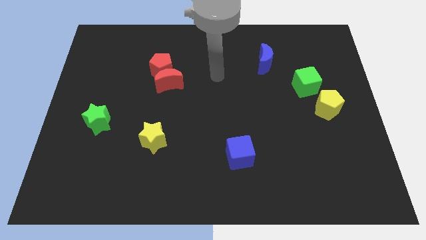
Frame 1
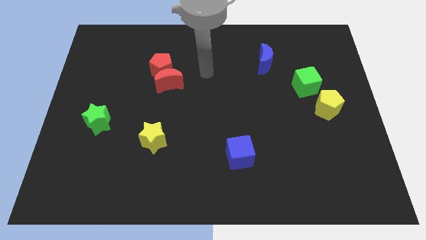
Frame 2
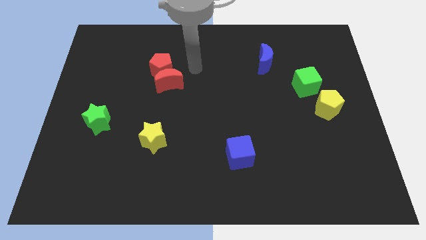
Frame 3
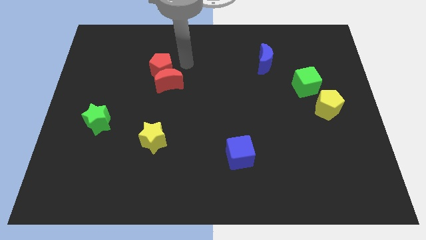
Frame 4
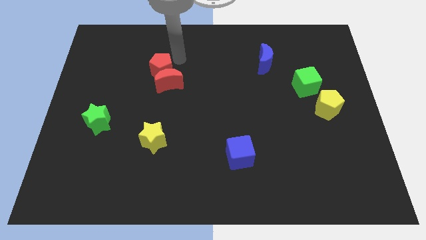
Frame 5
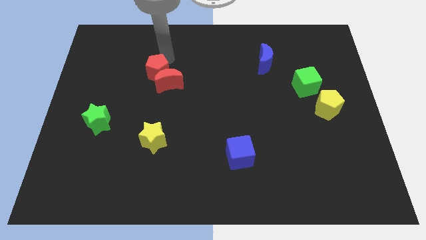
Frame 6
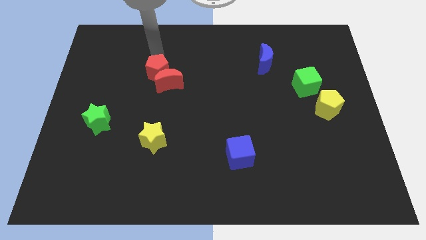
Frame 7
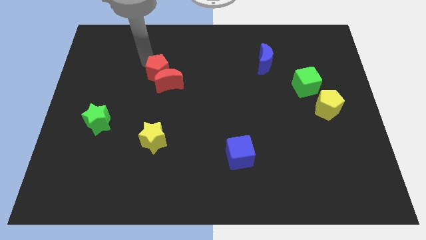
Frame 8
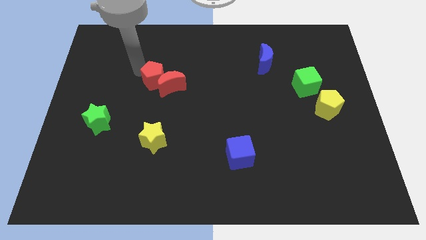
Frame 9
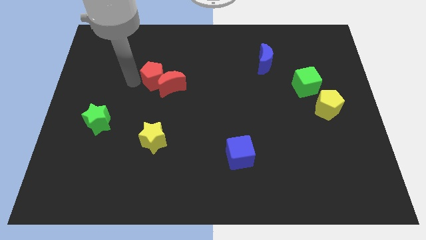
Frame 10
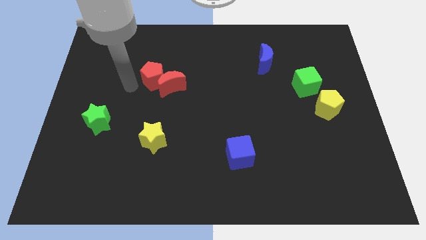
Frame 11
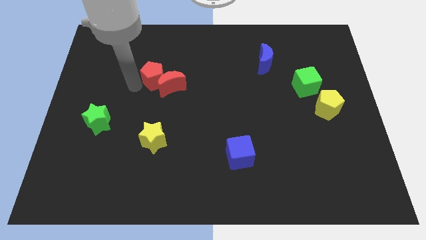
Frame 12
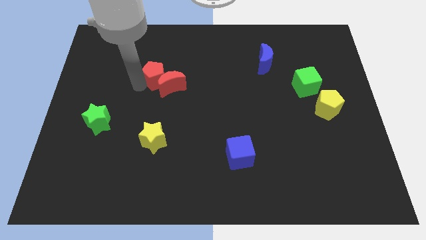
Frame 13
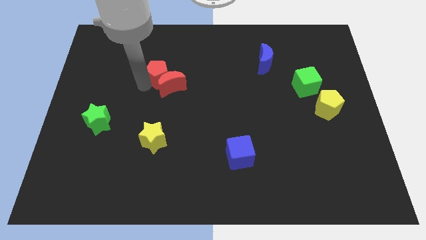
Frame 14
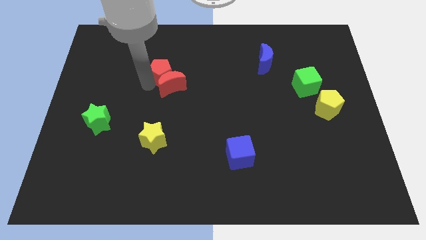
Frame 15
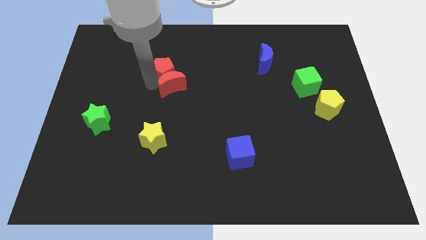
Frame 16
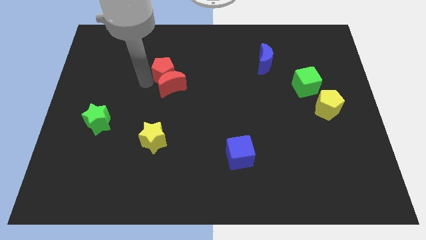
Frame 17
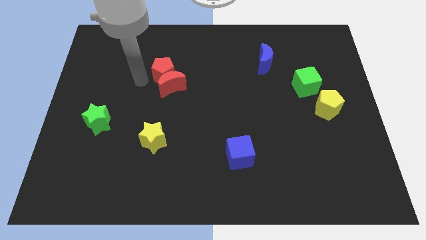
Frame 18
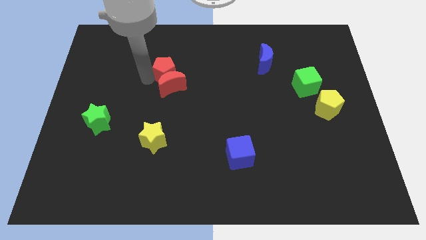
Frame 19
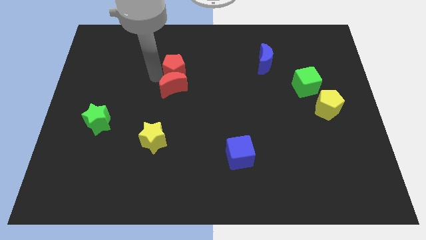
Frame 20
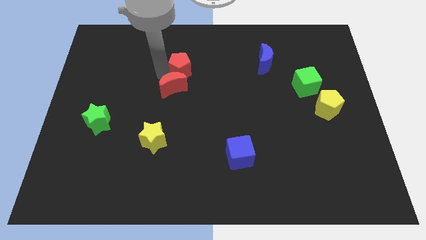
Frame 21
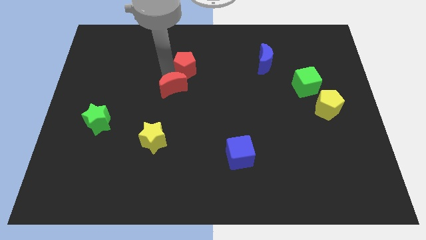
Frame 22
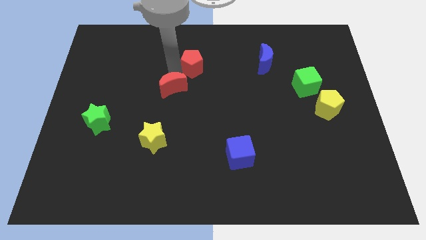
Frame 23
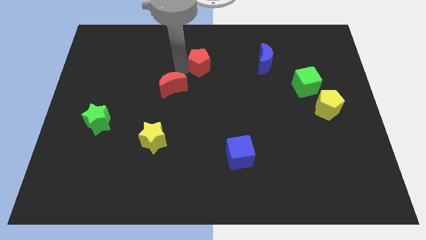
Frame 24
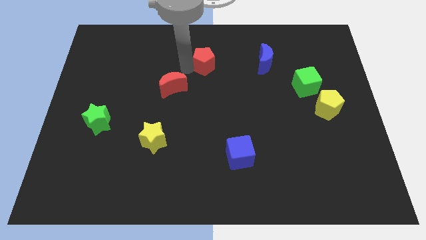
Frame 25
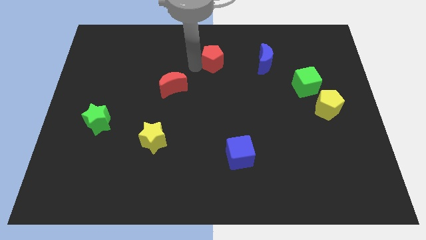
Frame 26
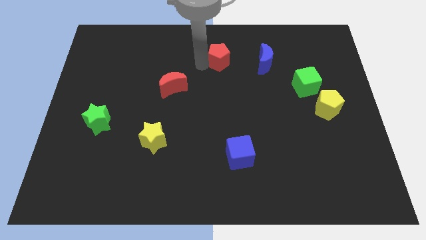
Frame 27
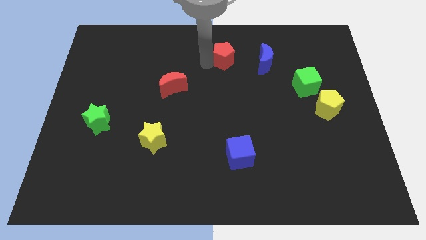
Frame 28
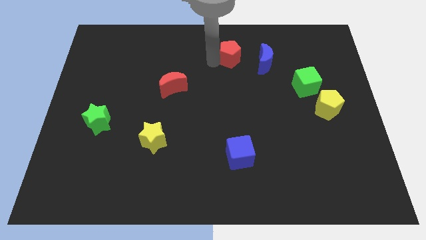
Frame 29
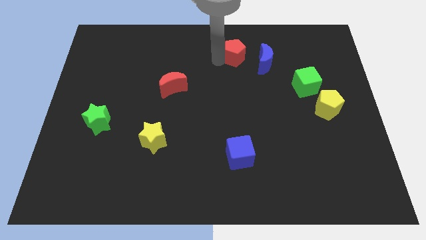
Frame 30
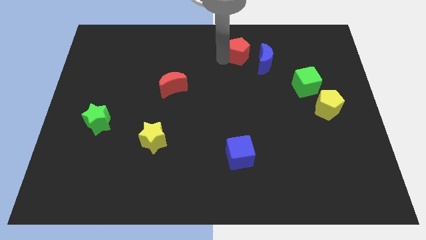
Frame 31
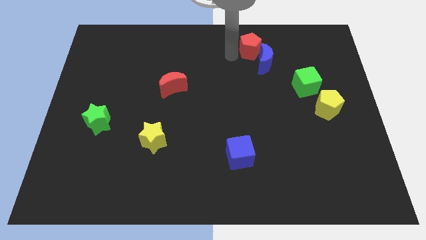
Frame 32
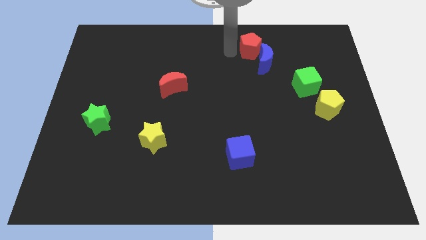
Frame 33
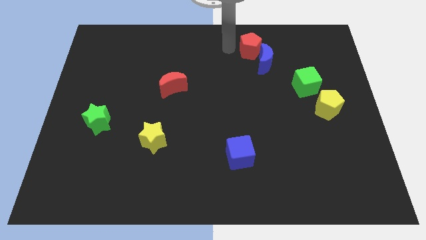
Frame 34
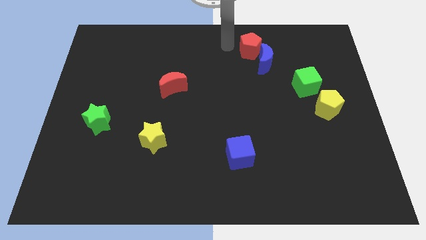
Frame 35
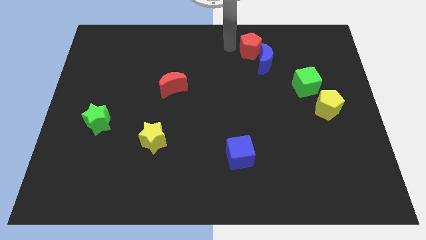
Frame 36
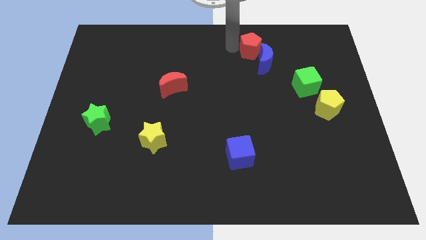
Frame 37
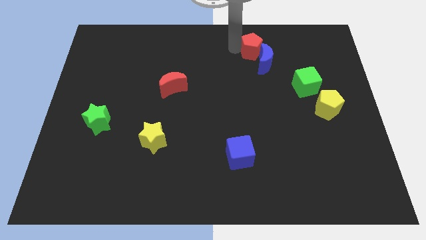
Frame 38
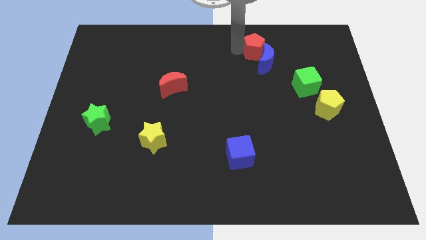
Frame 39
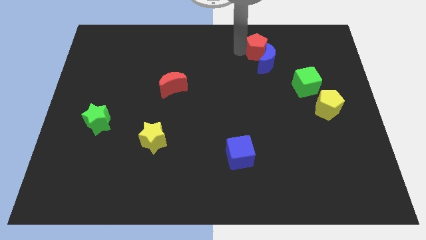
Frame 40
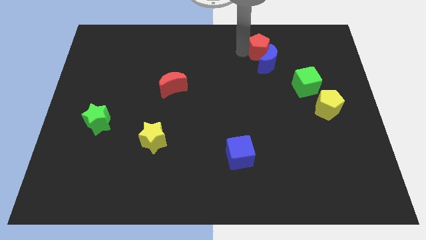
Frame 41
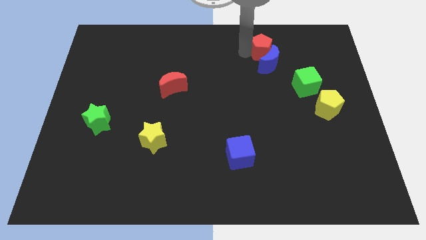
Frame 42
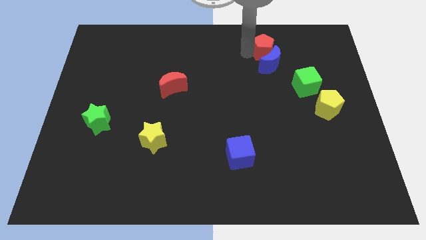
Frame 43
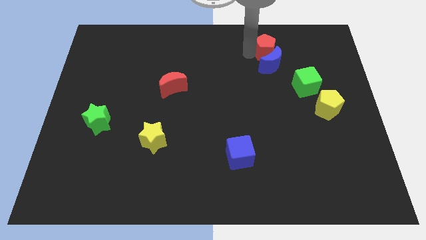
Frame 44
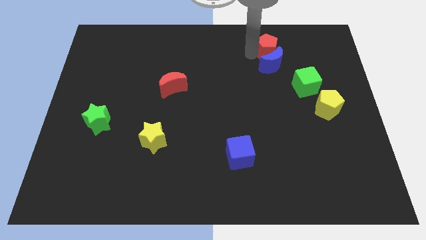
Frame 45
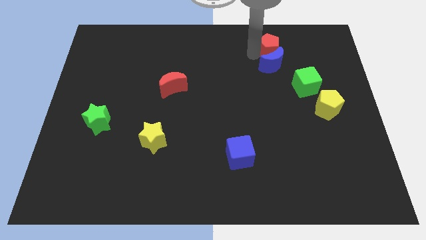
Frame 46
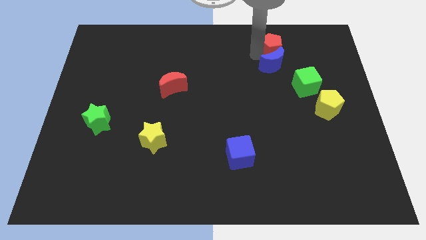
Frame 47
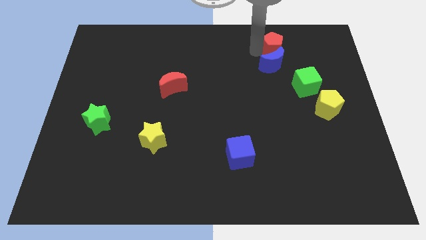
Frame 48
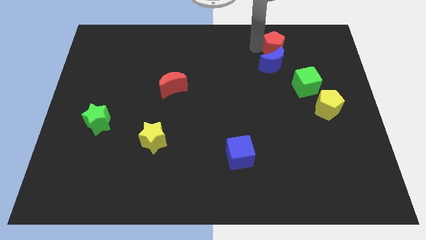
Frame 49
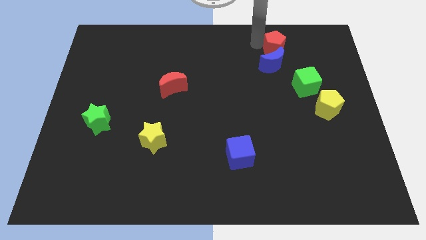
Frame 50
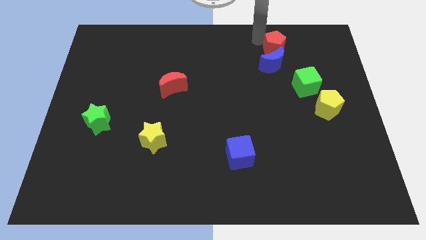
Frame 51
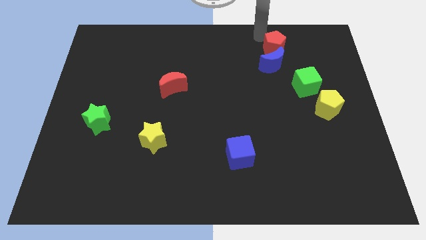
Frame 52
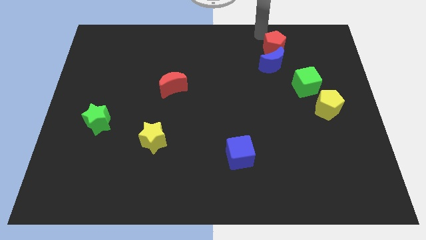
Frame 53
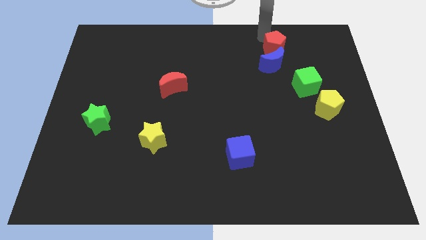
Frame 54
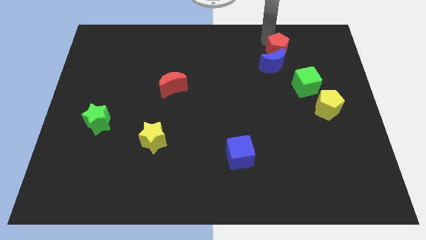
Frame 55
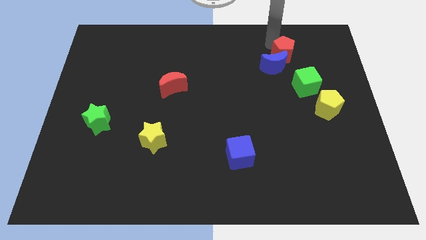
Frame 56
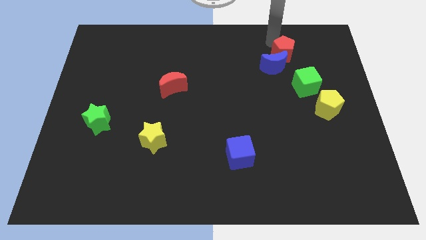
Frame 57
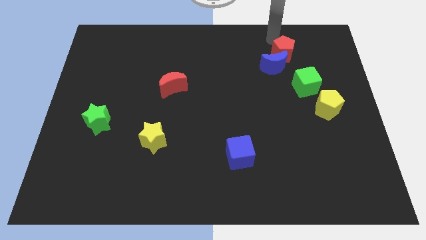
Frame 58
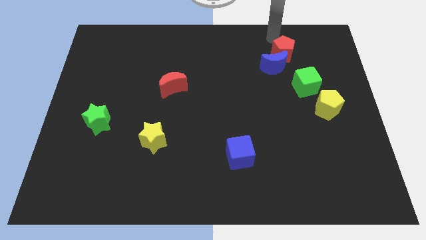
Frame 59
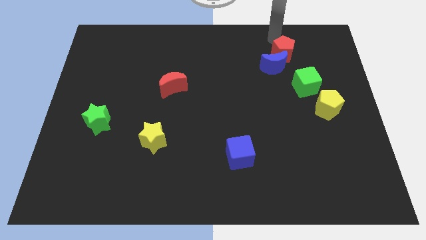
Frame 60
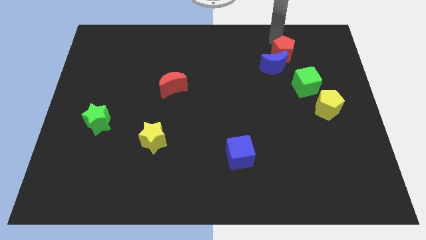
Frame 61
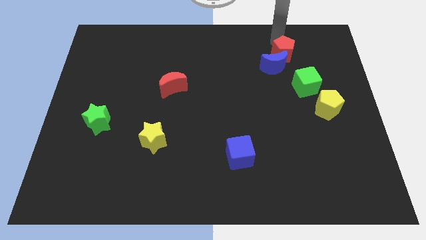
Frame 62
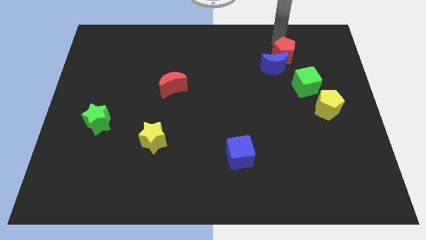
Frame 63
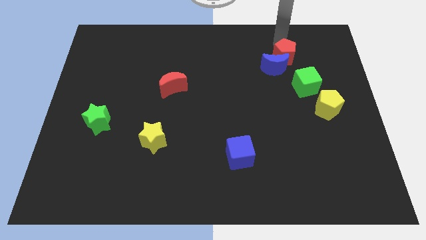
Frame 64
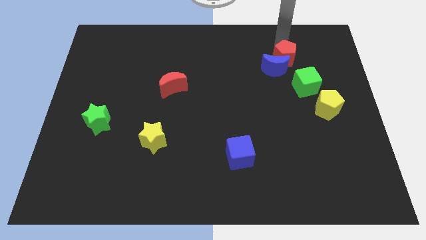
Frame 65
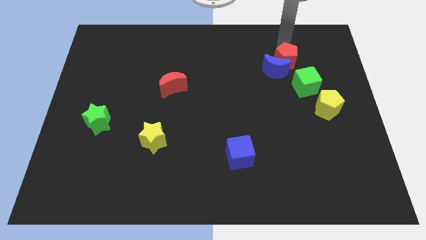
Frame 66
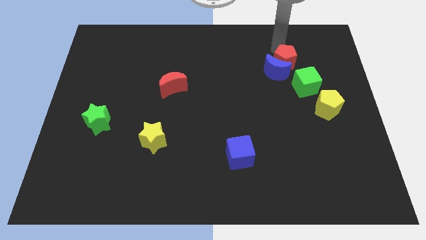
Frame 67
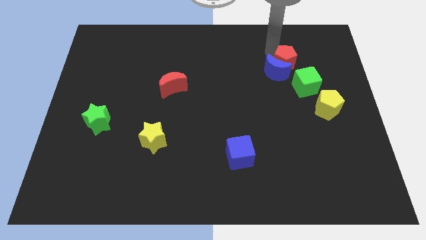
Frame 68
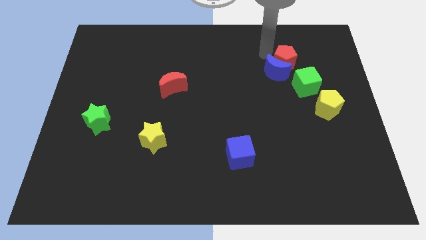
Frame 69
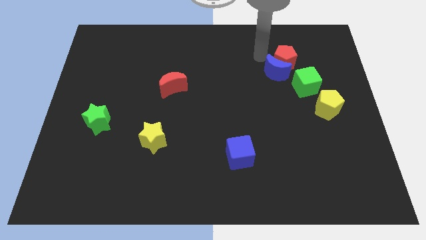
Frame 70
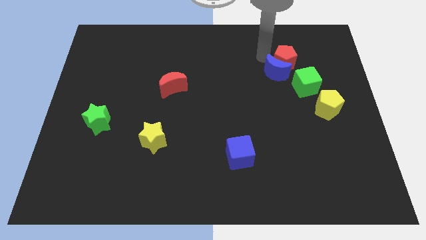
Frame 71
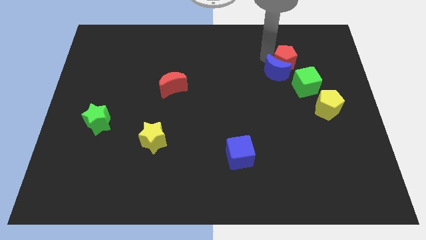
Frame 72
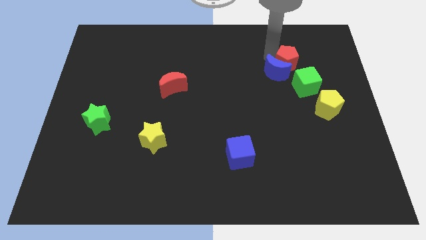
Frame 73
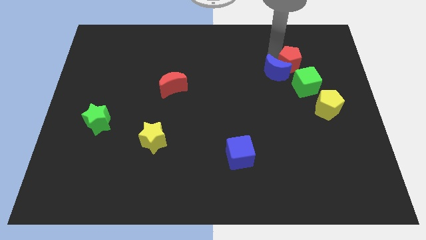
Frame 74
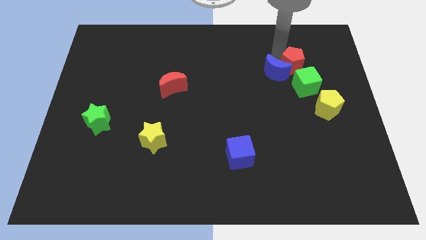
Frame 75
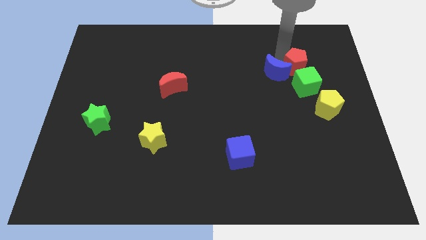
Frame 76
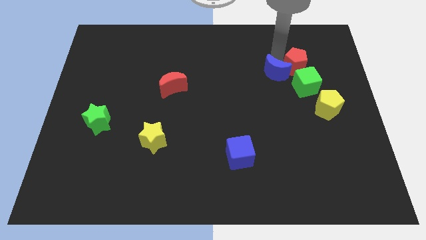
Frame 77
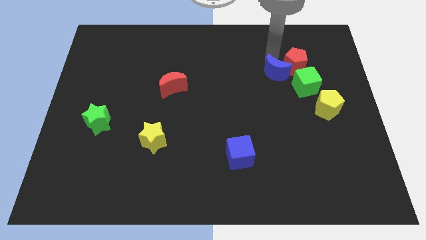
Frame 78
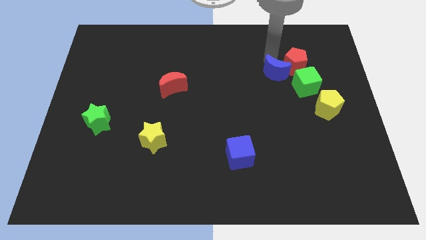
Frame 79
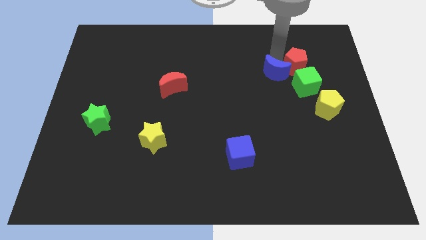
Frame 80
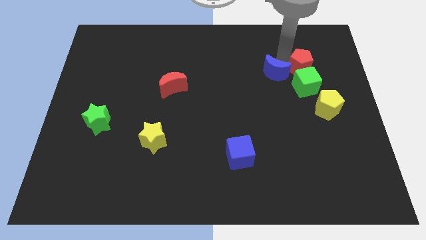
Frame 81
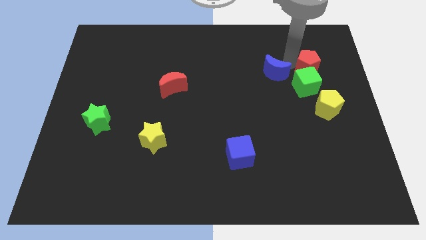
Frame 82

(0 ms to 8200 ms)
push the red pentagon to the top right of the green cube
